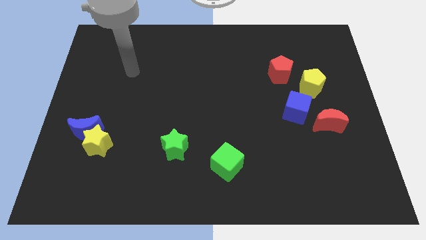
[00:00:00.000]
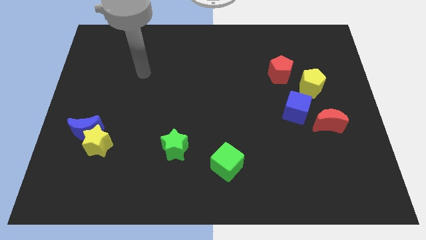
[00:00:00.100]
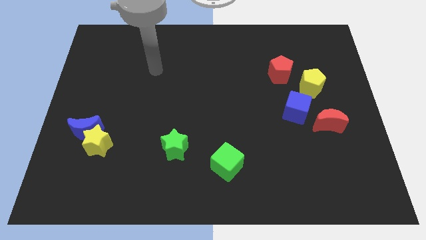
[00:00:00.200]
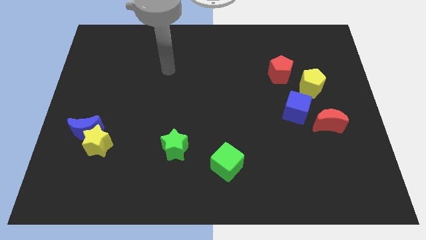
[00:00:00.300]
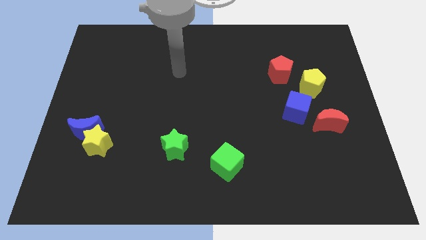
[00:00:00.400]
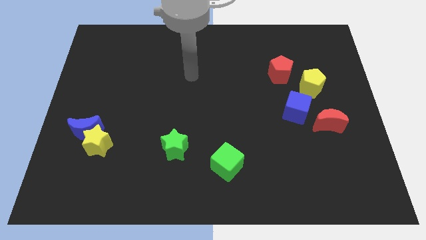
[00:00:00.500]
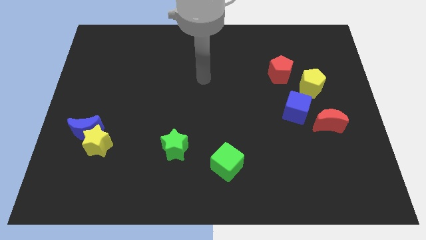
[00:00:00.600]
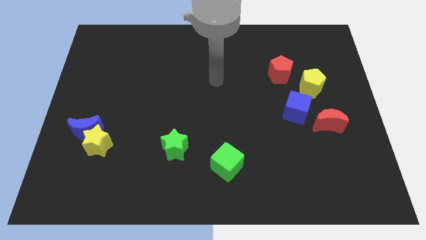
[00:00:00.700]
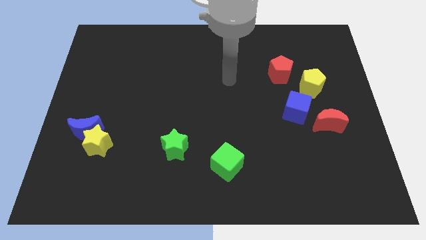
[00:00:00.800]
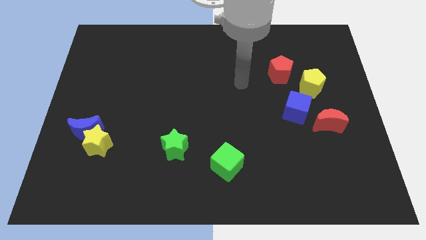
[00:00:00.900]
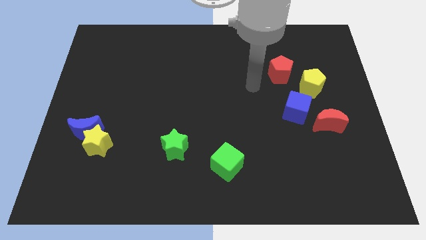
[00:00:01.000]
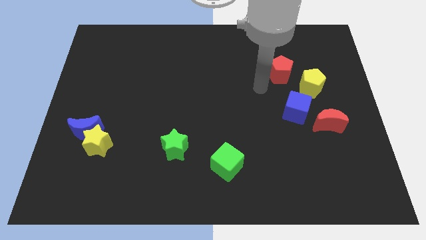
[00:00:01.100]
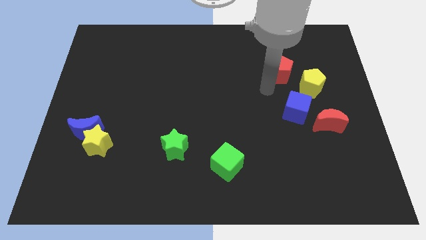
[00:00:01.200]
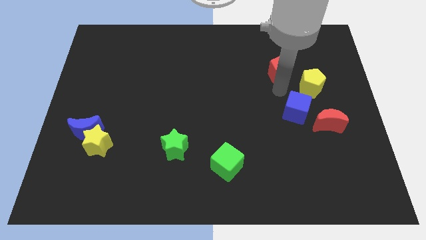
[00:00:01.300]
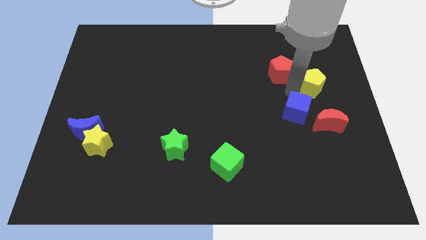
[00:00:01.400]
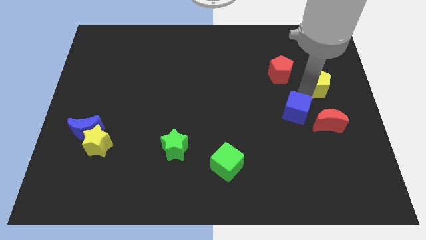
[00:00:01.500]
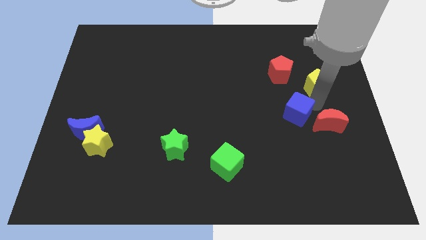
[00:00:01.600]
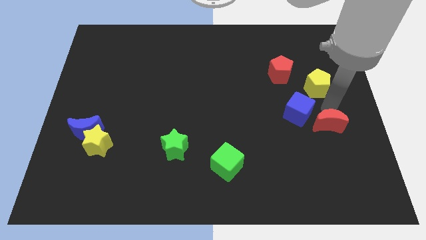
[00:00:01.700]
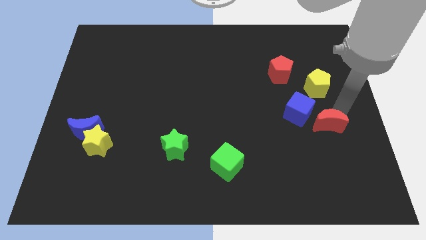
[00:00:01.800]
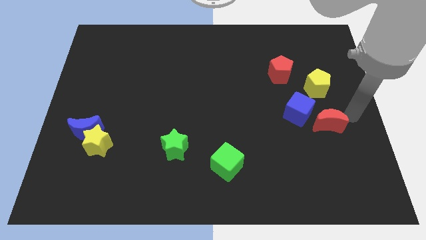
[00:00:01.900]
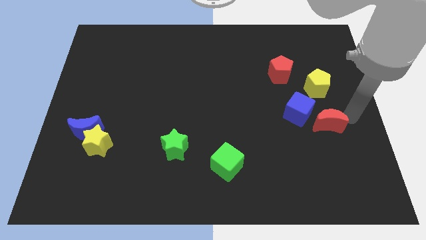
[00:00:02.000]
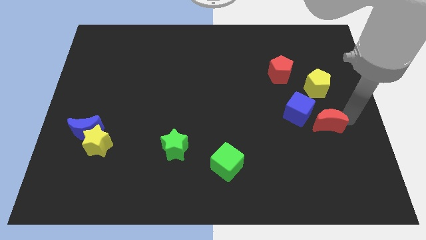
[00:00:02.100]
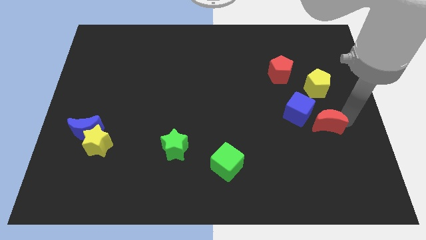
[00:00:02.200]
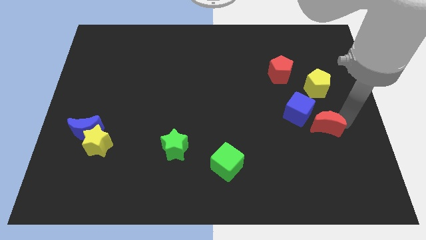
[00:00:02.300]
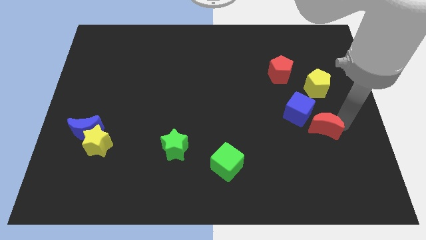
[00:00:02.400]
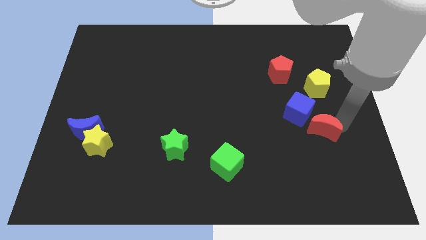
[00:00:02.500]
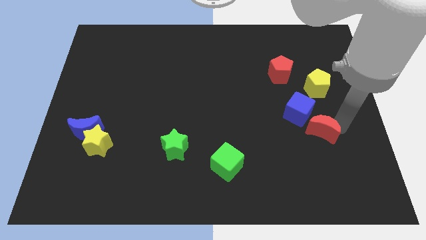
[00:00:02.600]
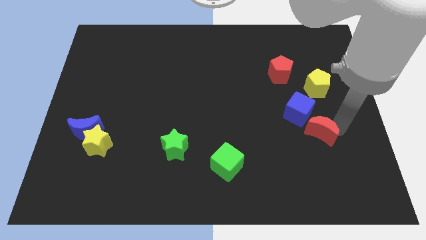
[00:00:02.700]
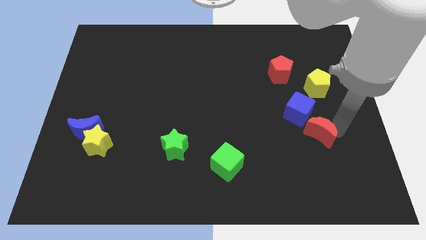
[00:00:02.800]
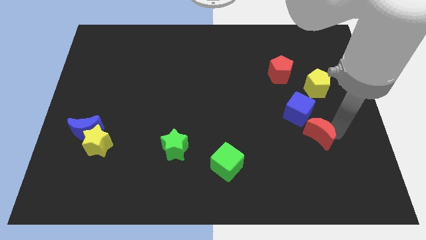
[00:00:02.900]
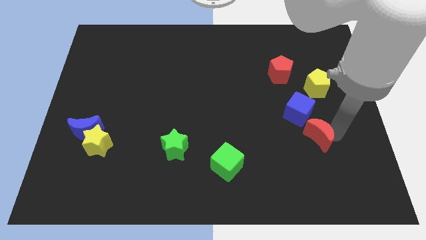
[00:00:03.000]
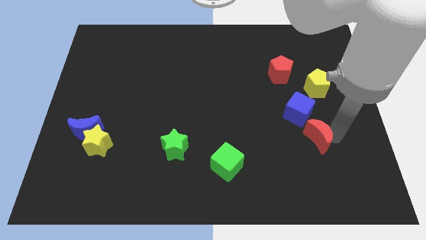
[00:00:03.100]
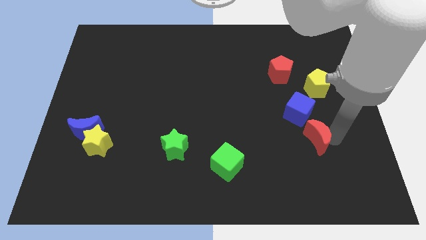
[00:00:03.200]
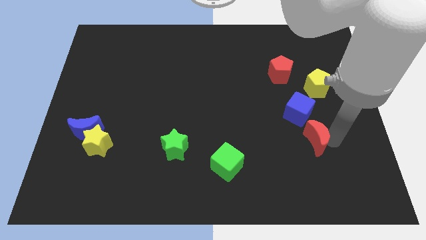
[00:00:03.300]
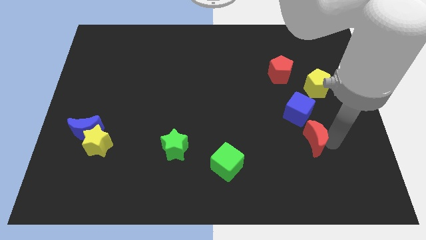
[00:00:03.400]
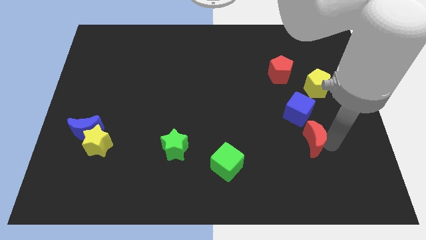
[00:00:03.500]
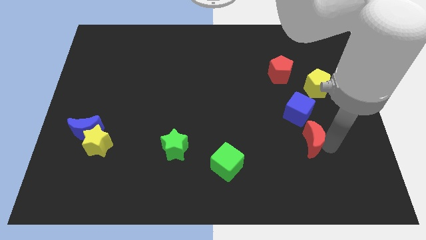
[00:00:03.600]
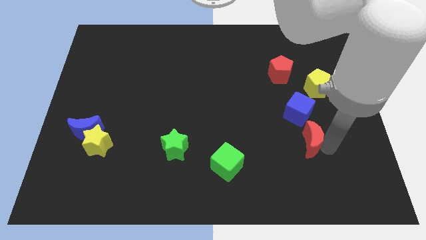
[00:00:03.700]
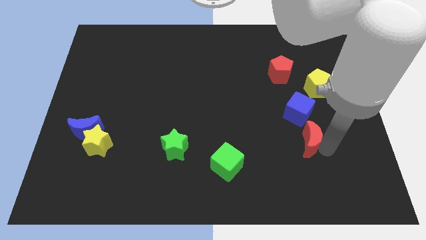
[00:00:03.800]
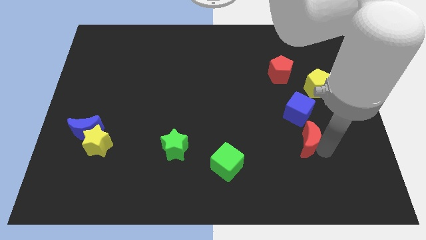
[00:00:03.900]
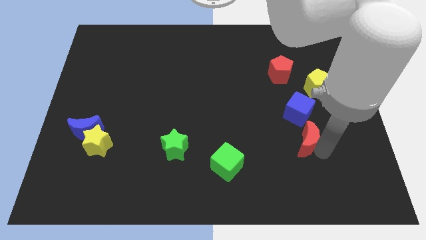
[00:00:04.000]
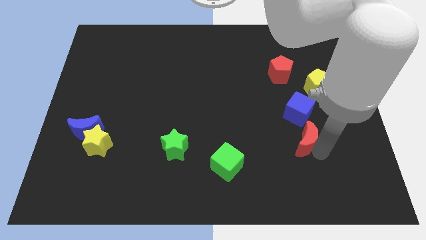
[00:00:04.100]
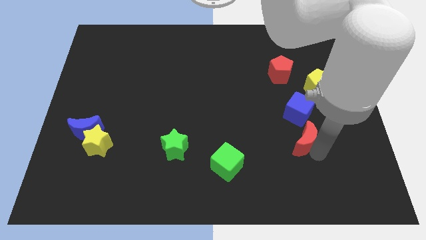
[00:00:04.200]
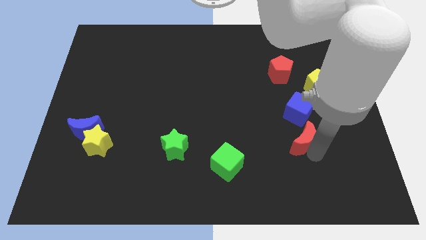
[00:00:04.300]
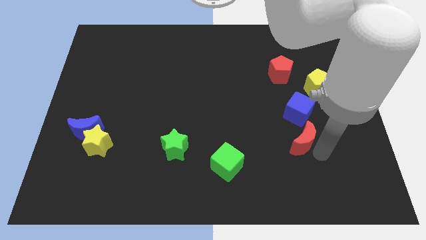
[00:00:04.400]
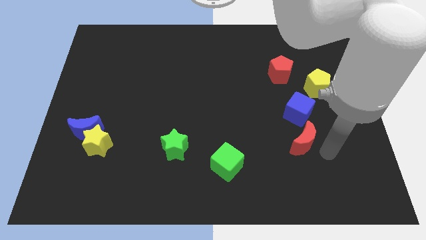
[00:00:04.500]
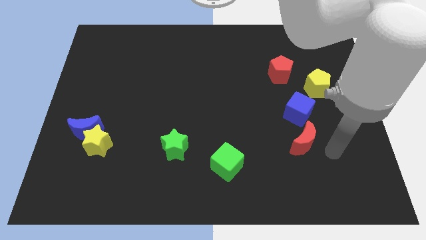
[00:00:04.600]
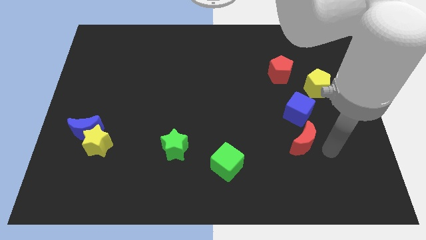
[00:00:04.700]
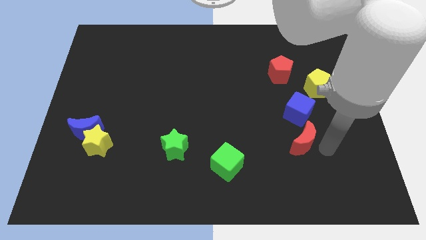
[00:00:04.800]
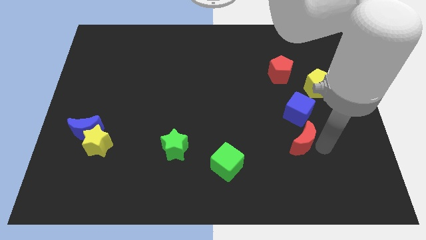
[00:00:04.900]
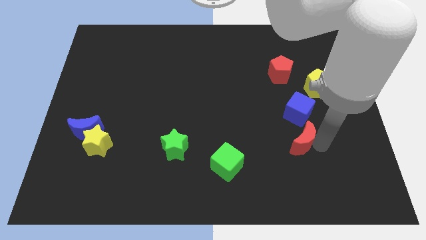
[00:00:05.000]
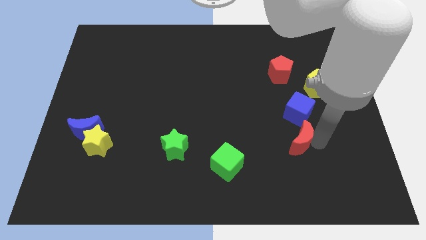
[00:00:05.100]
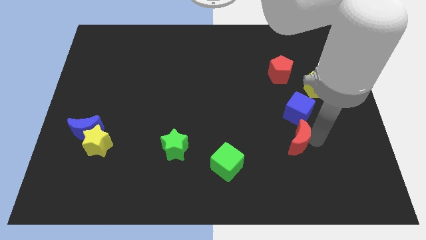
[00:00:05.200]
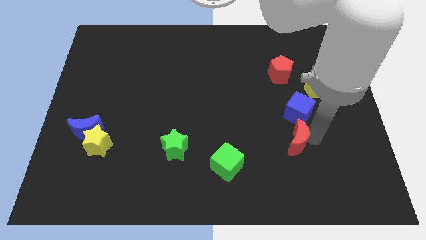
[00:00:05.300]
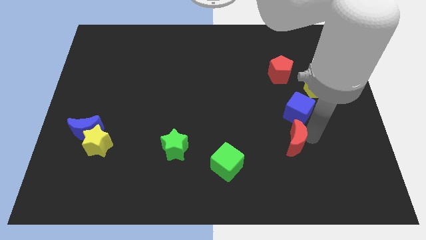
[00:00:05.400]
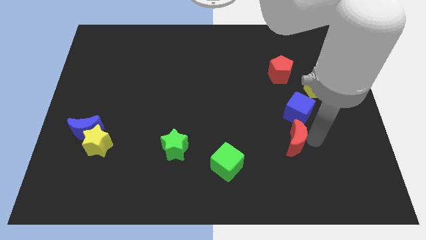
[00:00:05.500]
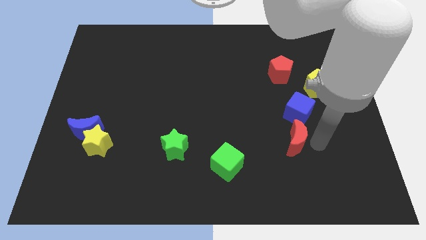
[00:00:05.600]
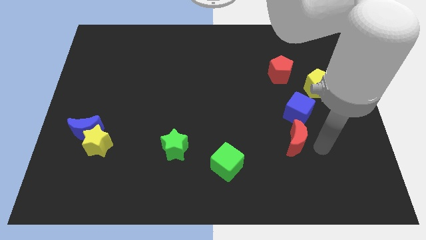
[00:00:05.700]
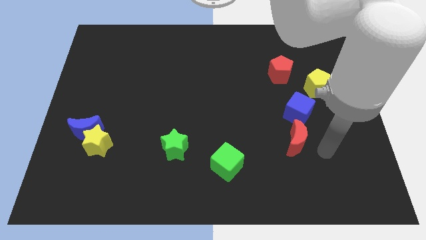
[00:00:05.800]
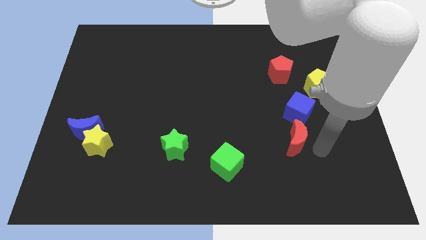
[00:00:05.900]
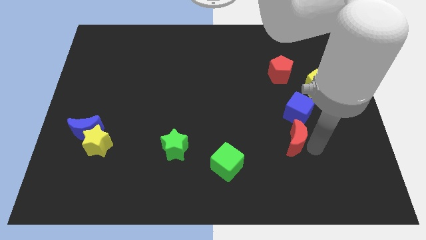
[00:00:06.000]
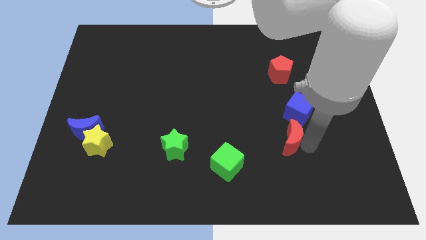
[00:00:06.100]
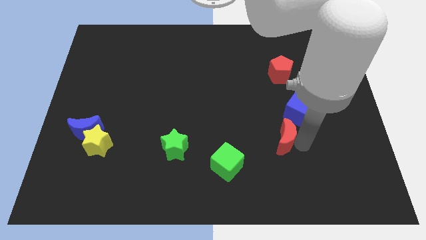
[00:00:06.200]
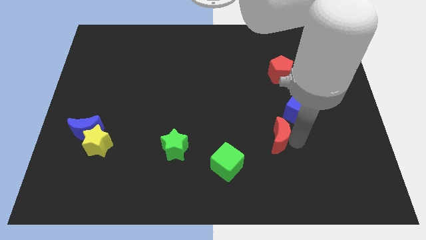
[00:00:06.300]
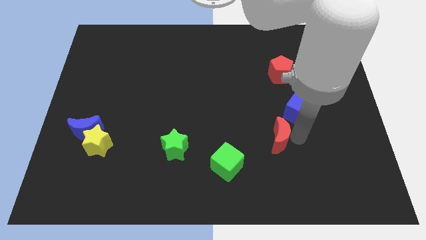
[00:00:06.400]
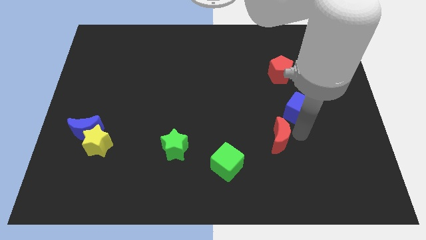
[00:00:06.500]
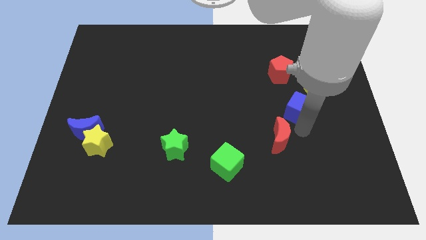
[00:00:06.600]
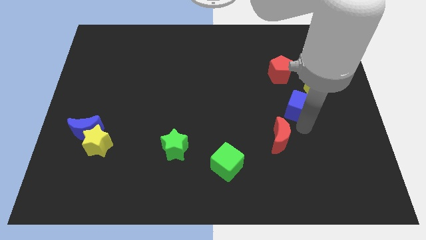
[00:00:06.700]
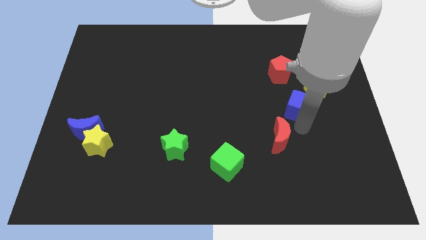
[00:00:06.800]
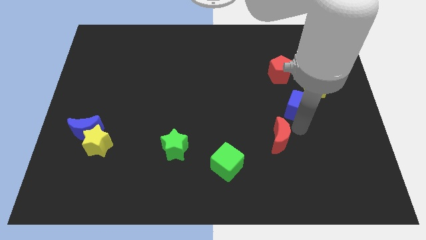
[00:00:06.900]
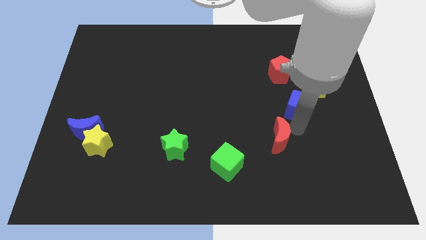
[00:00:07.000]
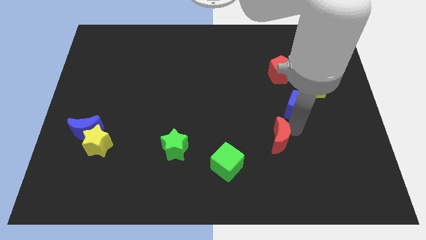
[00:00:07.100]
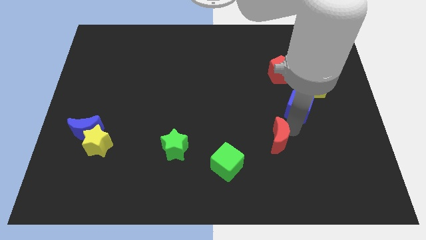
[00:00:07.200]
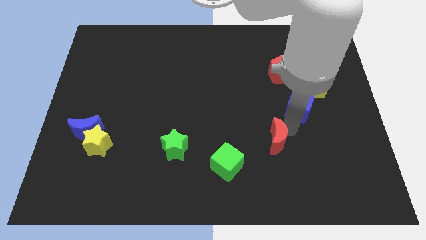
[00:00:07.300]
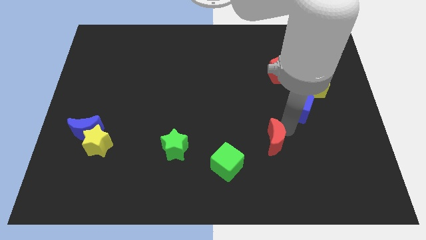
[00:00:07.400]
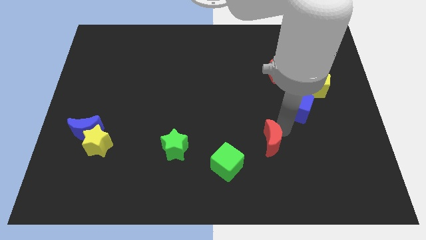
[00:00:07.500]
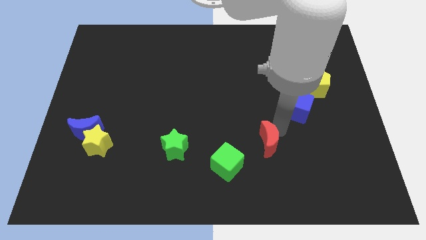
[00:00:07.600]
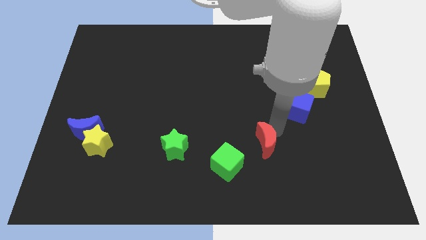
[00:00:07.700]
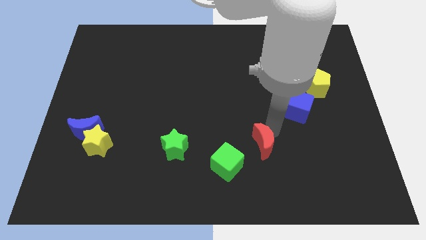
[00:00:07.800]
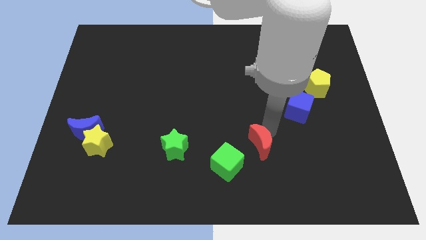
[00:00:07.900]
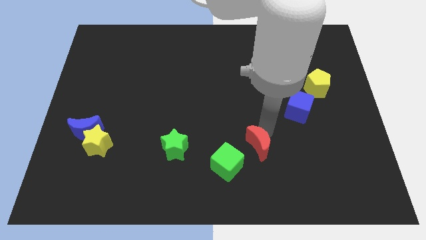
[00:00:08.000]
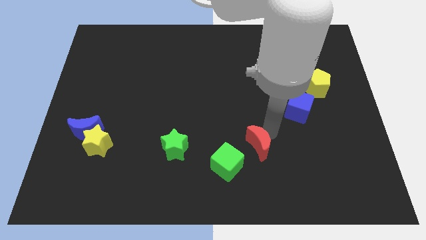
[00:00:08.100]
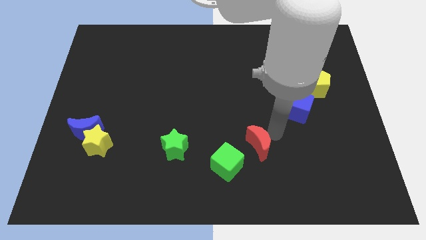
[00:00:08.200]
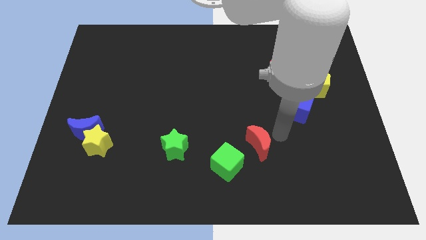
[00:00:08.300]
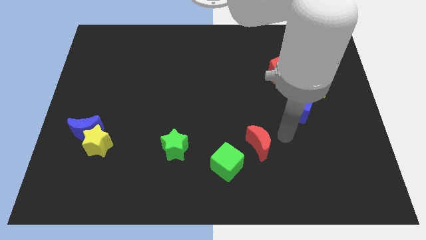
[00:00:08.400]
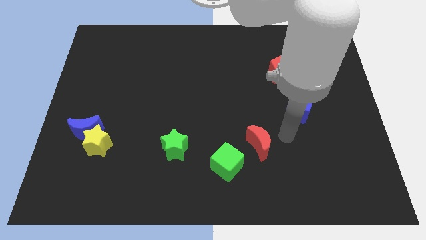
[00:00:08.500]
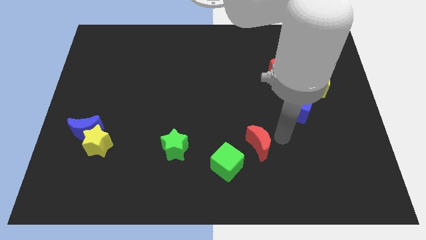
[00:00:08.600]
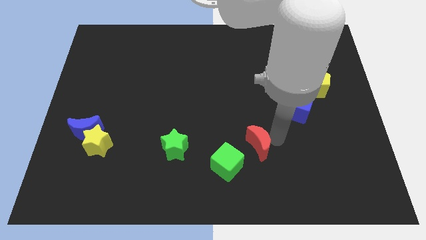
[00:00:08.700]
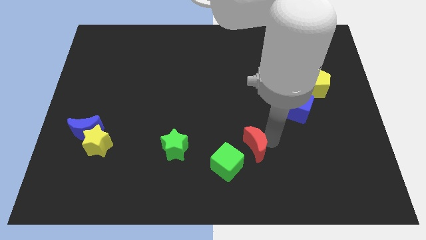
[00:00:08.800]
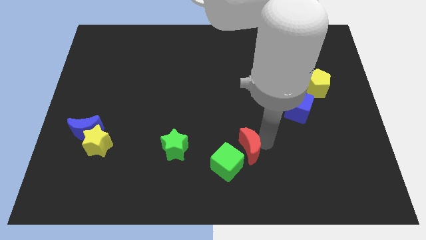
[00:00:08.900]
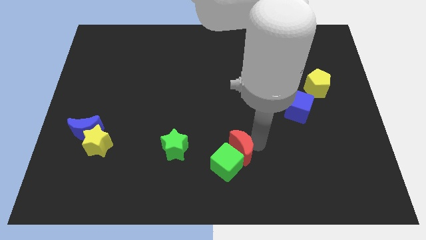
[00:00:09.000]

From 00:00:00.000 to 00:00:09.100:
push the red moon next to the green cube
